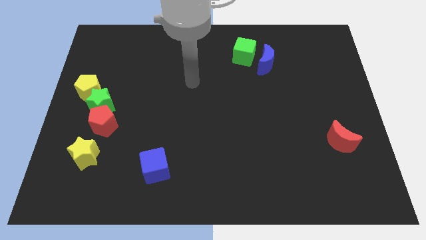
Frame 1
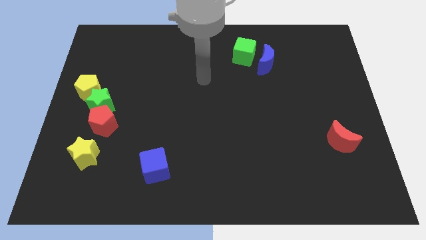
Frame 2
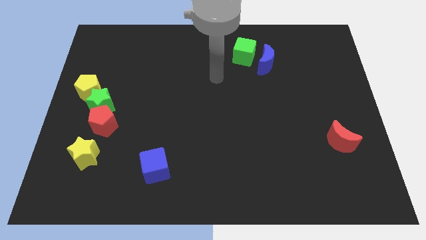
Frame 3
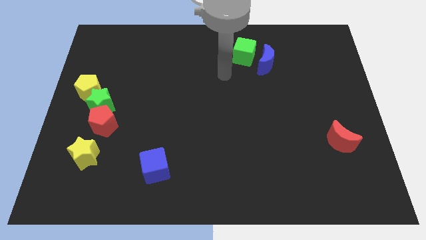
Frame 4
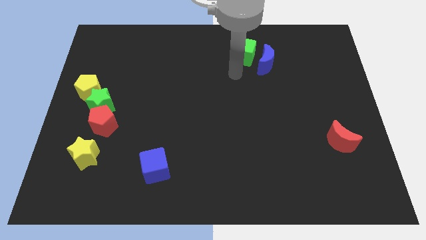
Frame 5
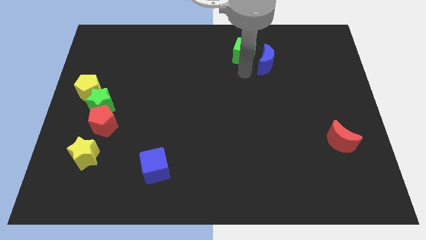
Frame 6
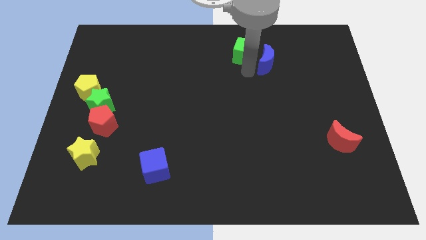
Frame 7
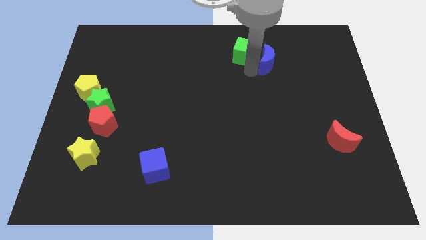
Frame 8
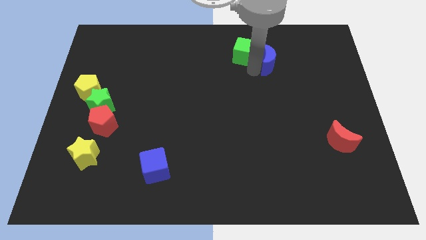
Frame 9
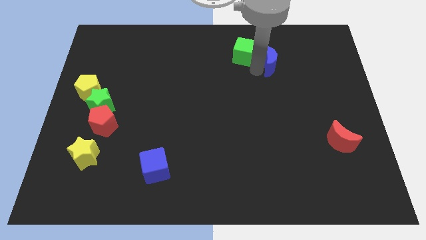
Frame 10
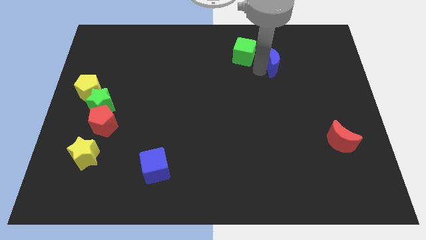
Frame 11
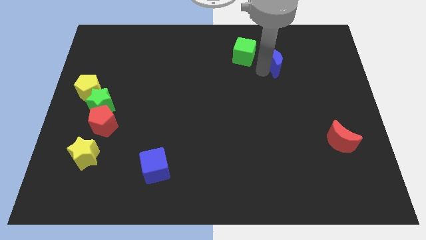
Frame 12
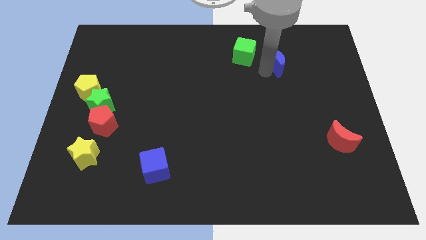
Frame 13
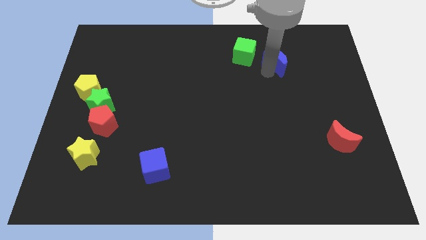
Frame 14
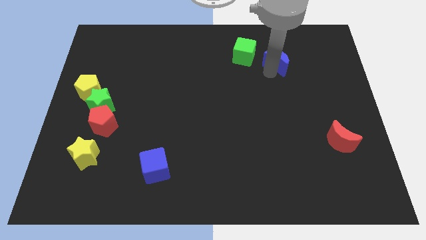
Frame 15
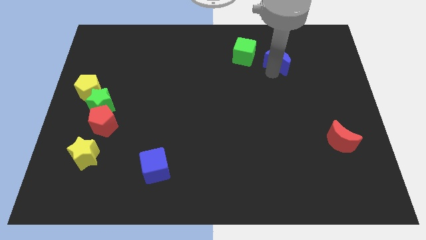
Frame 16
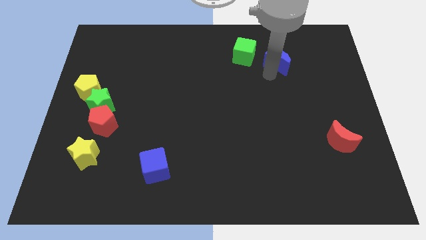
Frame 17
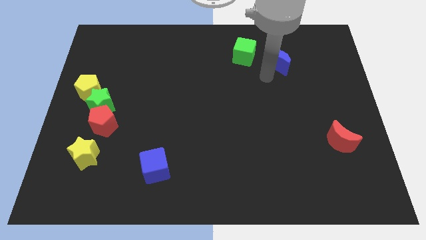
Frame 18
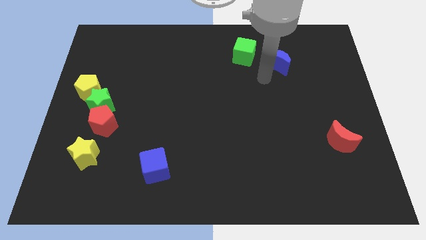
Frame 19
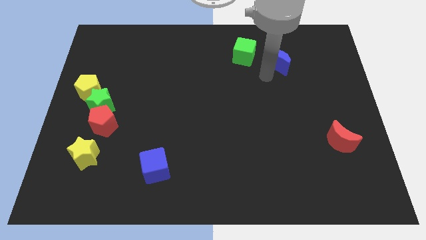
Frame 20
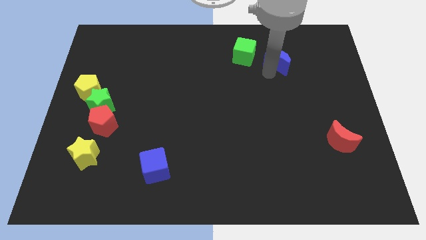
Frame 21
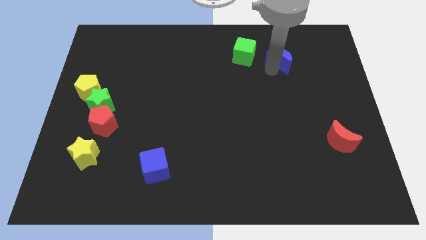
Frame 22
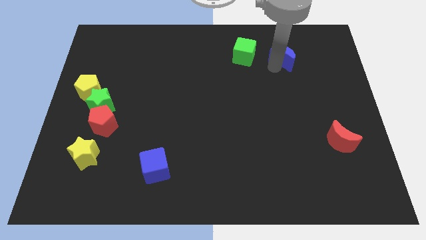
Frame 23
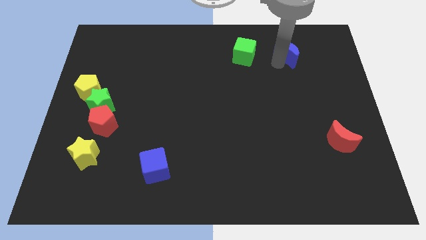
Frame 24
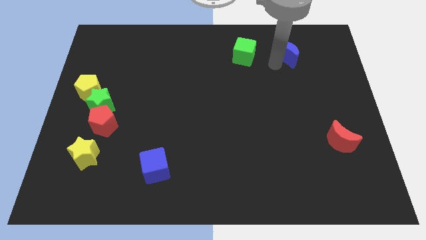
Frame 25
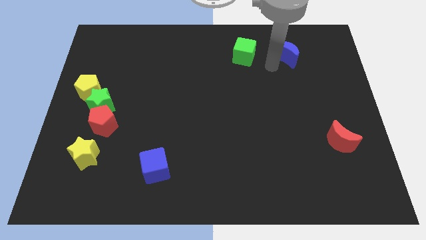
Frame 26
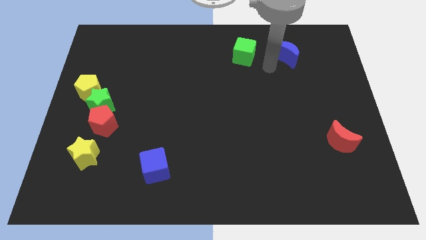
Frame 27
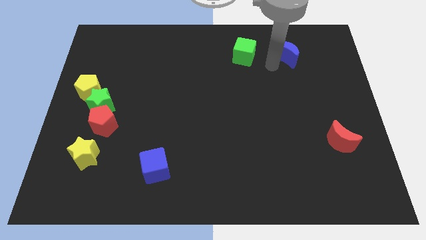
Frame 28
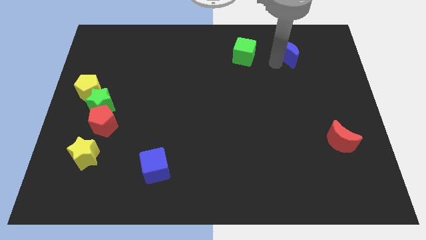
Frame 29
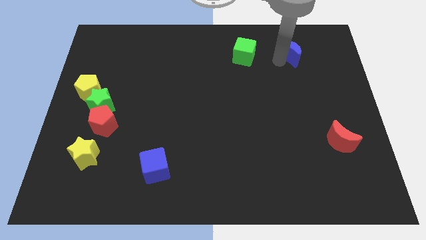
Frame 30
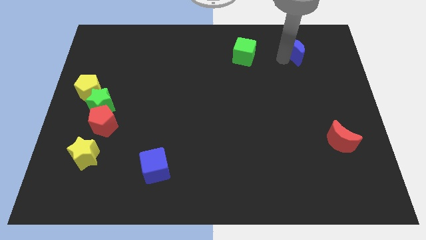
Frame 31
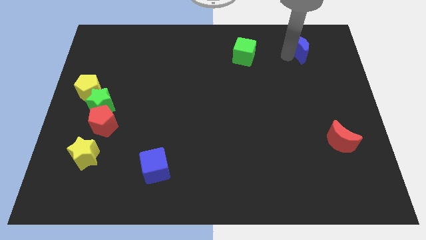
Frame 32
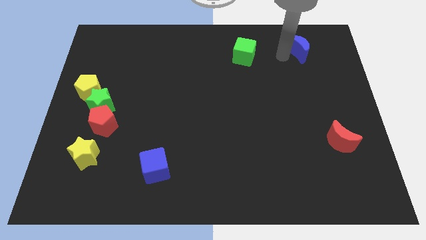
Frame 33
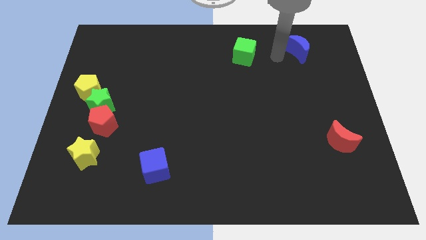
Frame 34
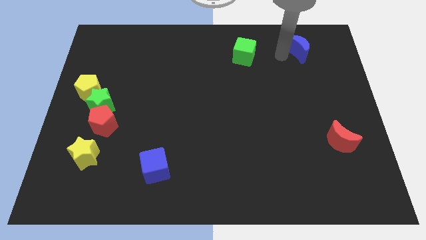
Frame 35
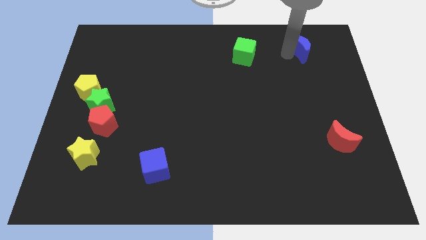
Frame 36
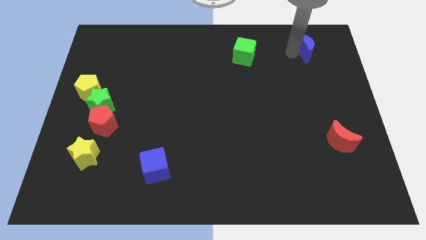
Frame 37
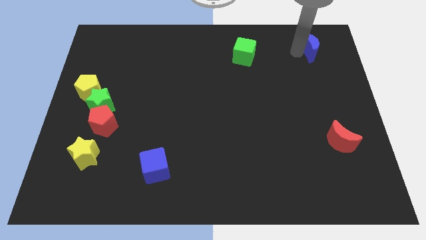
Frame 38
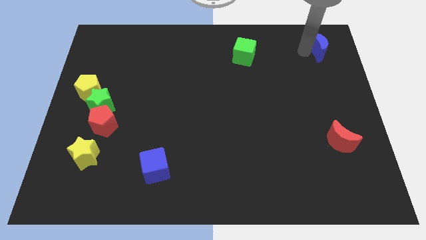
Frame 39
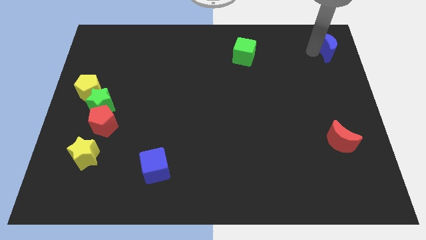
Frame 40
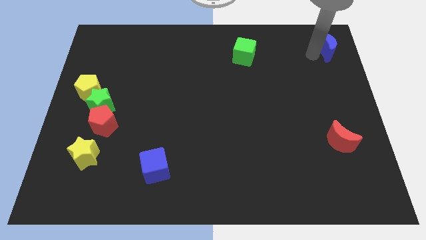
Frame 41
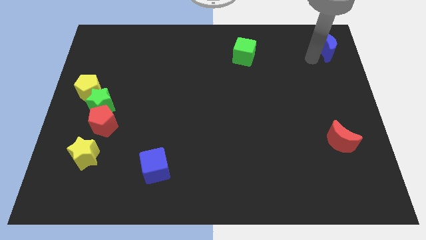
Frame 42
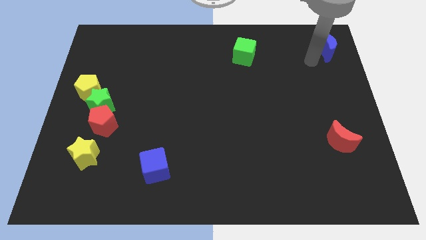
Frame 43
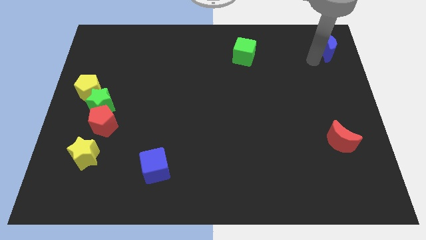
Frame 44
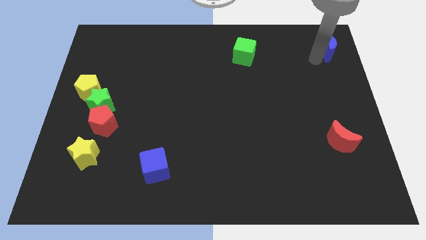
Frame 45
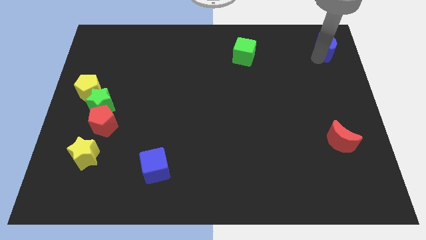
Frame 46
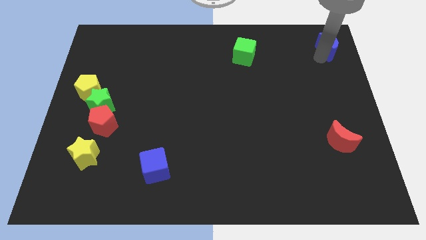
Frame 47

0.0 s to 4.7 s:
put the blue moon to the top right of the board

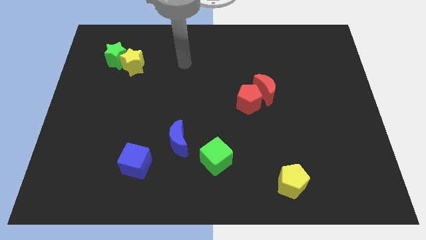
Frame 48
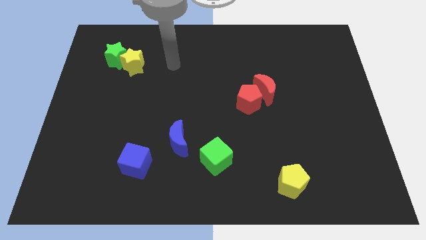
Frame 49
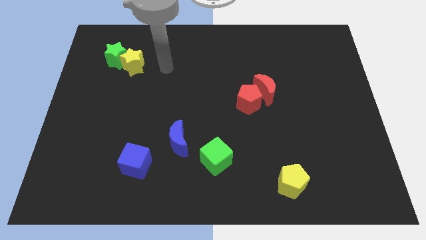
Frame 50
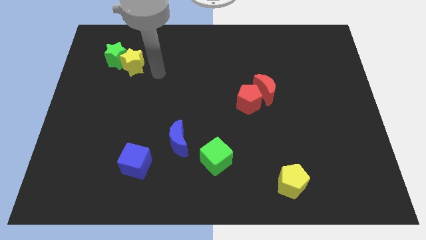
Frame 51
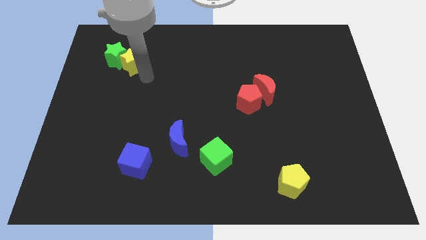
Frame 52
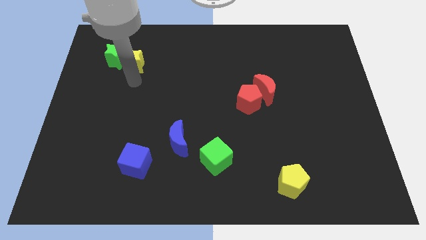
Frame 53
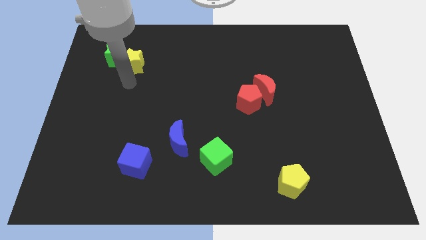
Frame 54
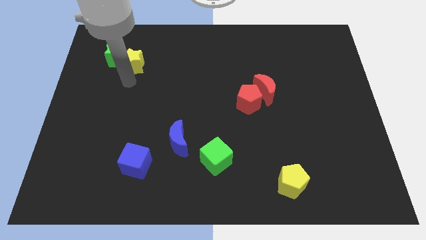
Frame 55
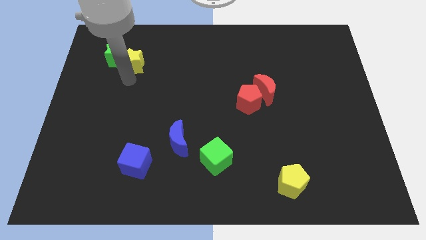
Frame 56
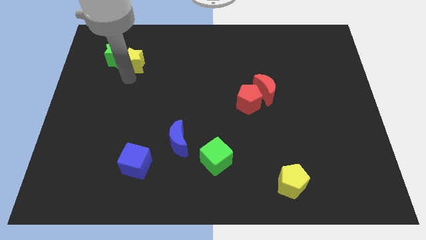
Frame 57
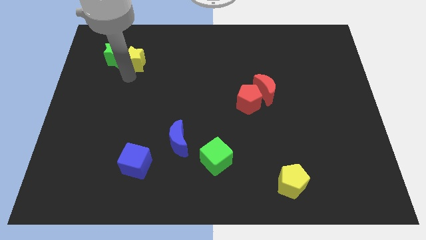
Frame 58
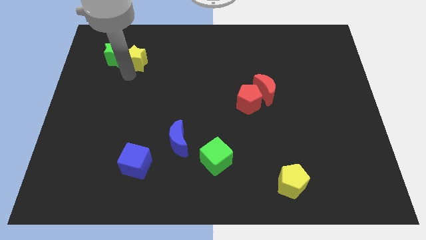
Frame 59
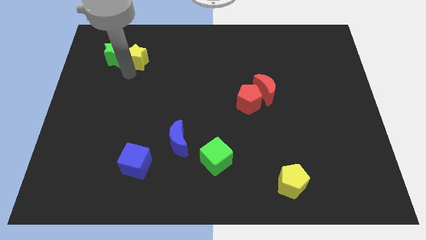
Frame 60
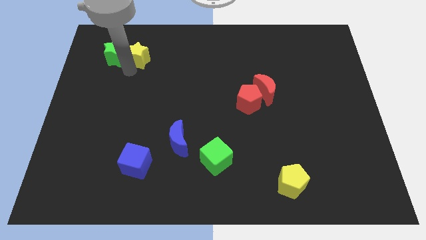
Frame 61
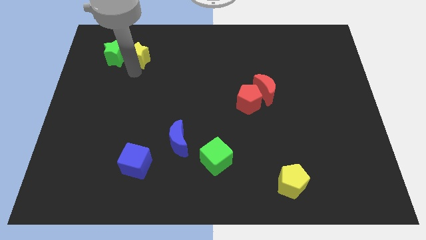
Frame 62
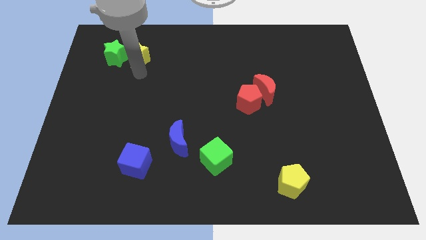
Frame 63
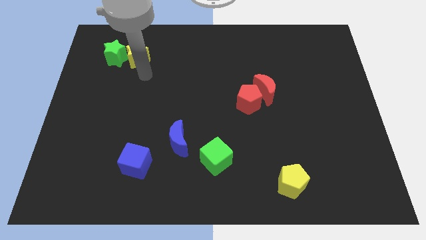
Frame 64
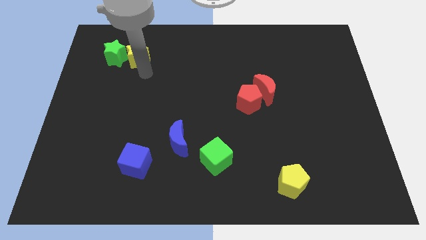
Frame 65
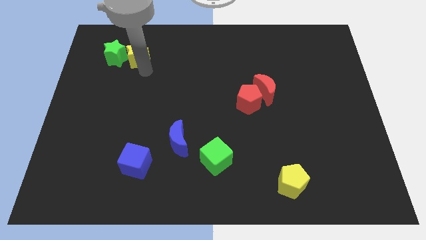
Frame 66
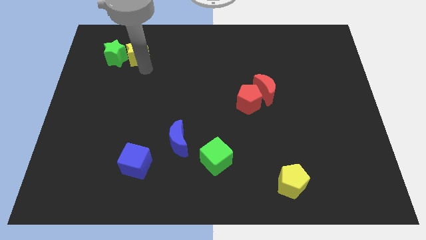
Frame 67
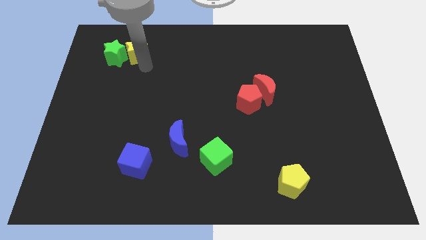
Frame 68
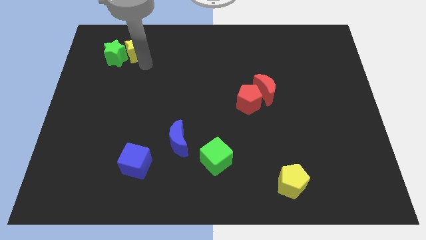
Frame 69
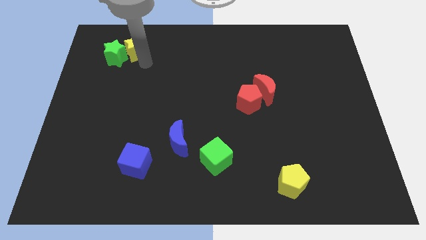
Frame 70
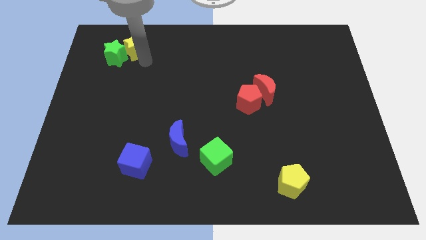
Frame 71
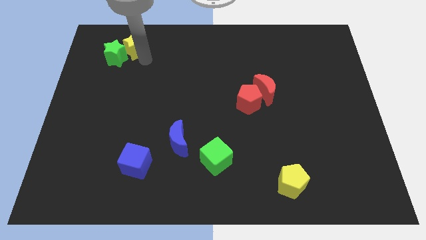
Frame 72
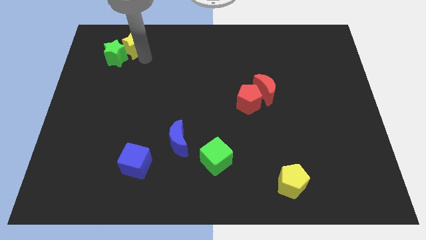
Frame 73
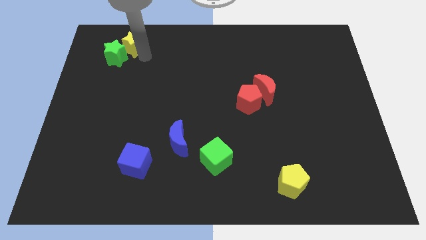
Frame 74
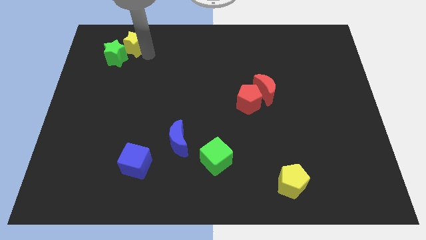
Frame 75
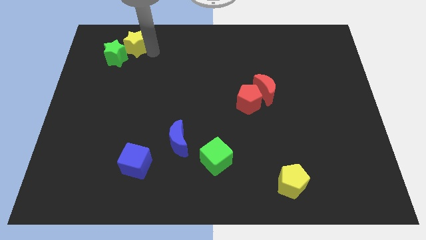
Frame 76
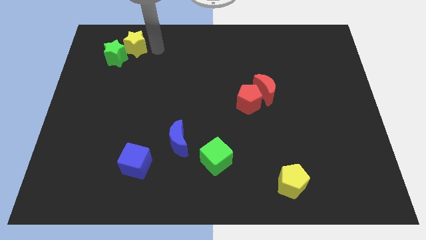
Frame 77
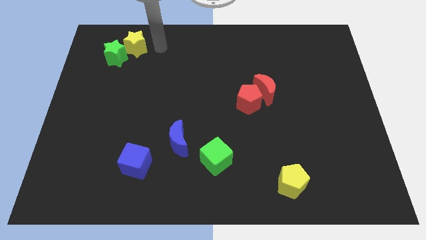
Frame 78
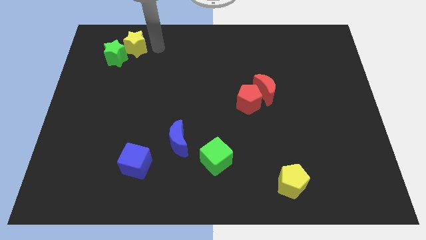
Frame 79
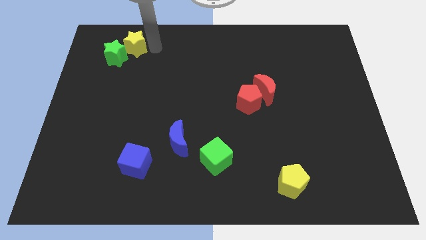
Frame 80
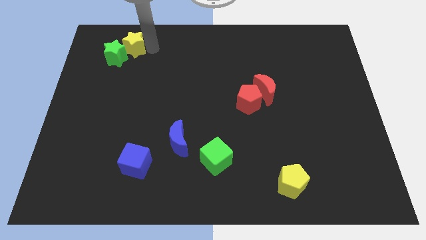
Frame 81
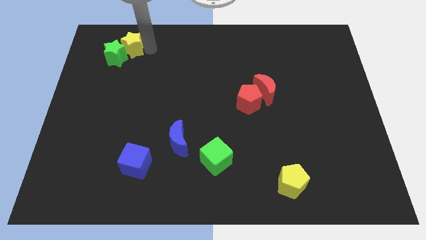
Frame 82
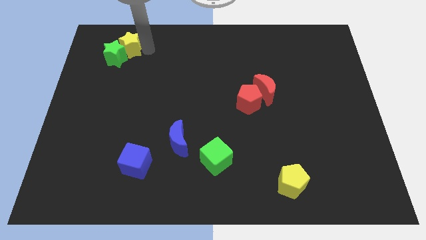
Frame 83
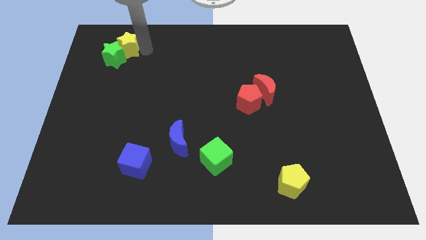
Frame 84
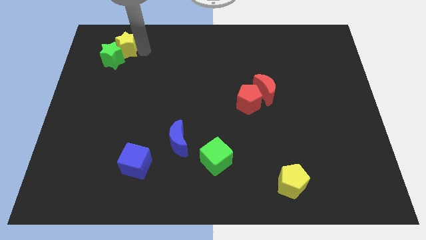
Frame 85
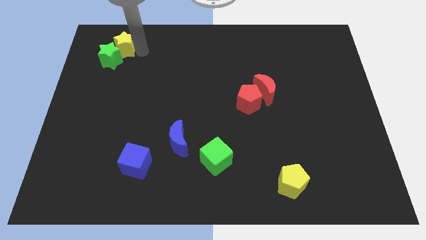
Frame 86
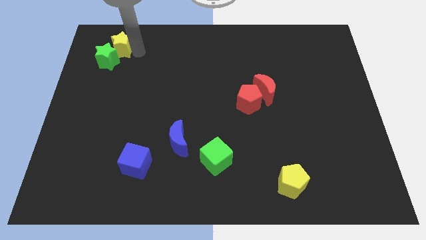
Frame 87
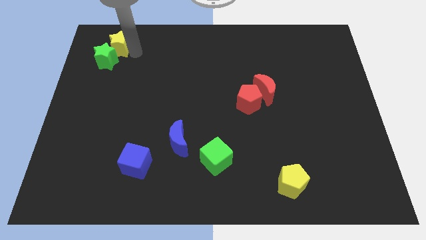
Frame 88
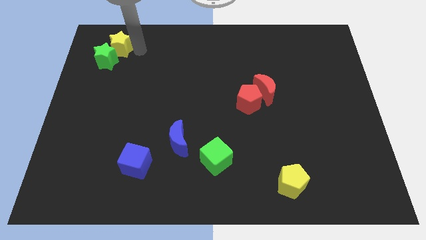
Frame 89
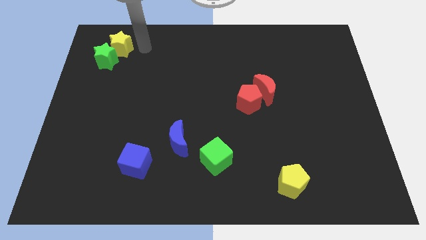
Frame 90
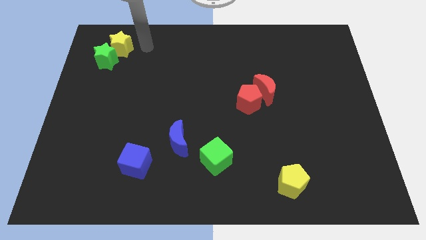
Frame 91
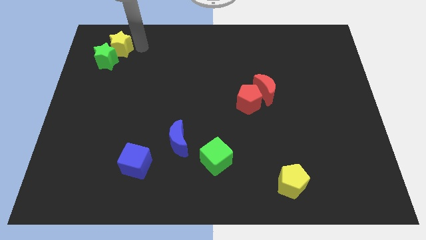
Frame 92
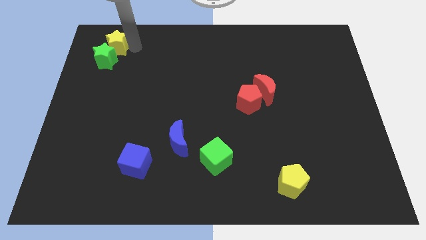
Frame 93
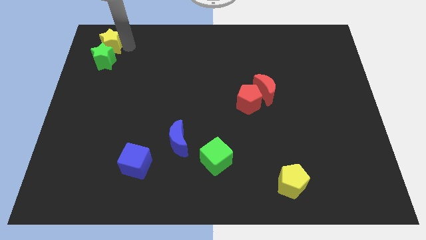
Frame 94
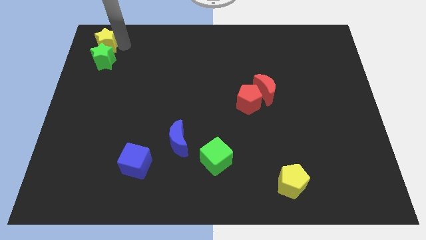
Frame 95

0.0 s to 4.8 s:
slide the yellow star to the top left corner
